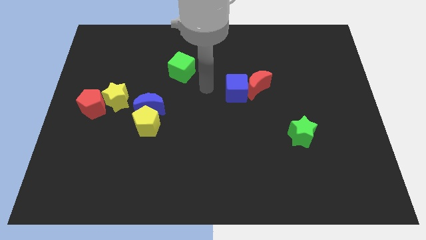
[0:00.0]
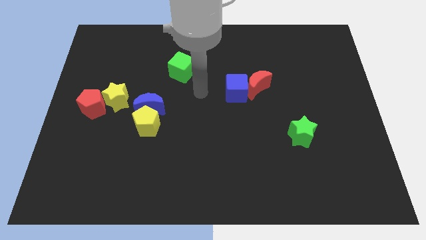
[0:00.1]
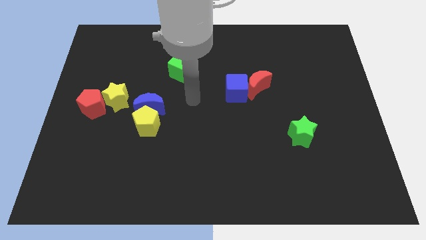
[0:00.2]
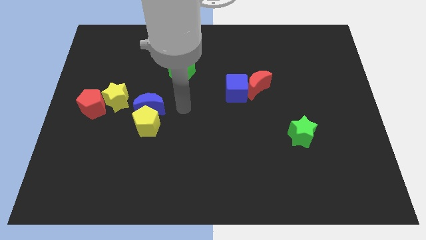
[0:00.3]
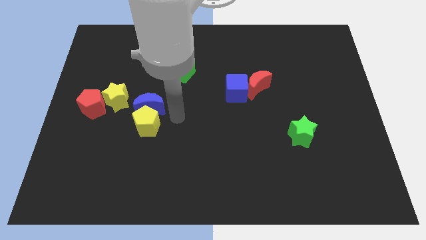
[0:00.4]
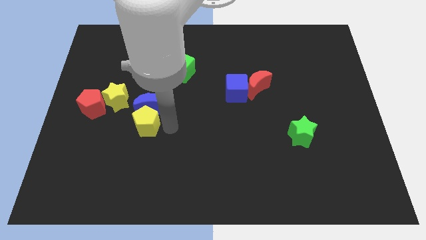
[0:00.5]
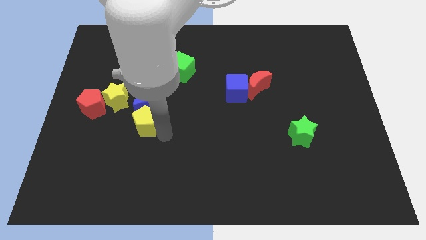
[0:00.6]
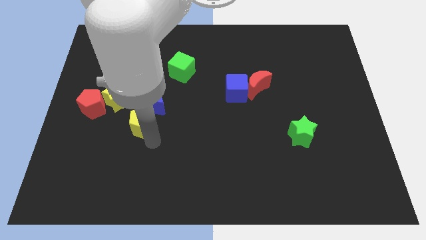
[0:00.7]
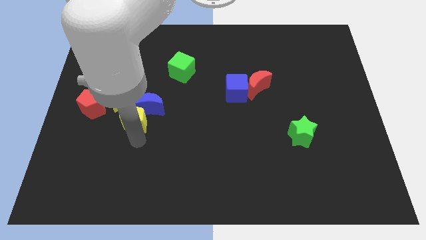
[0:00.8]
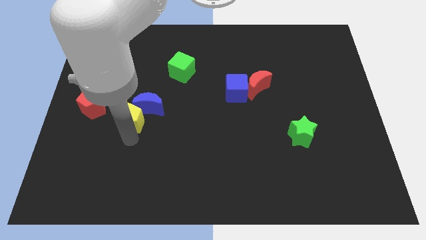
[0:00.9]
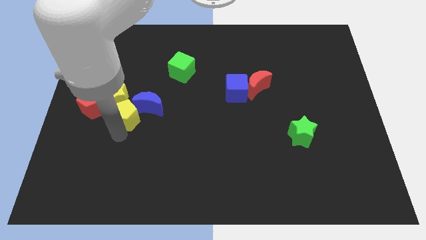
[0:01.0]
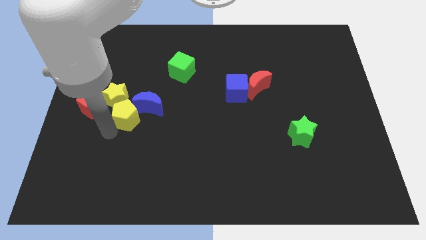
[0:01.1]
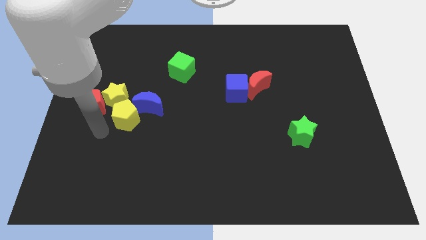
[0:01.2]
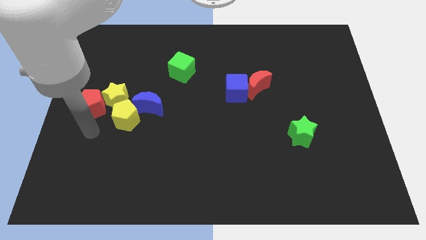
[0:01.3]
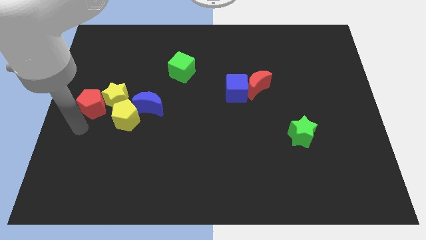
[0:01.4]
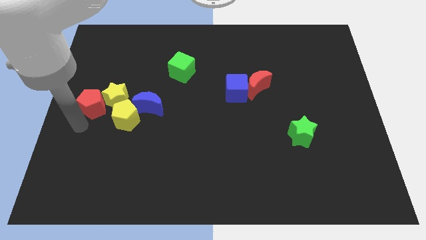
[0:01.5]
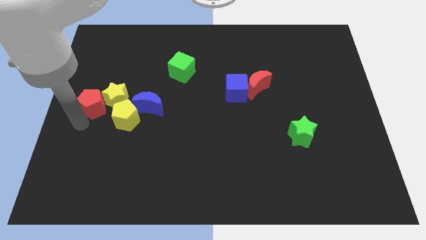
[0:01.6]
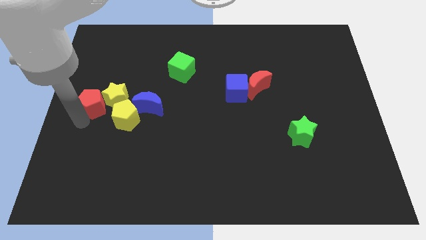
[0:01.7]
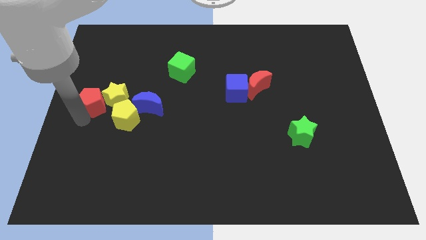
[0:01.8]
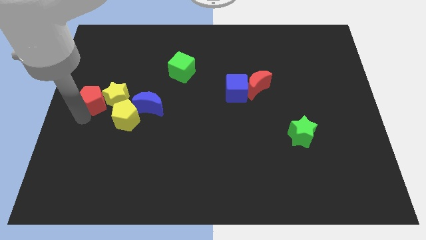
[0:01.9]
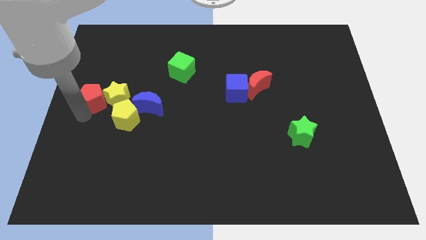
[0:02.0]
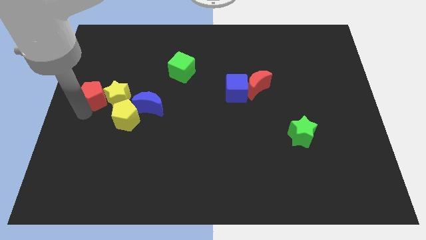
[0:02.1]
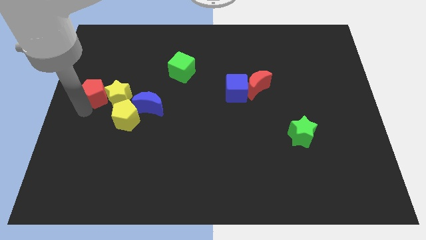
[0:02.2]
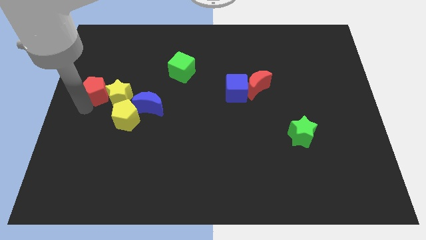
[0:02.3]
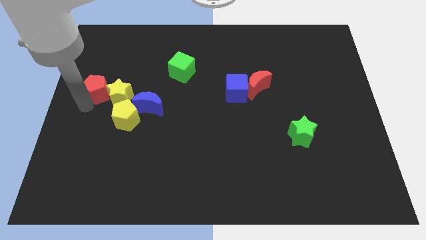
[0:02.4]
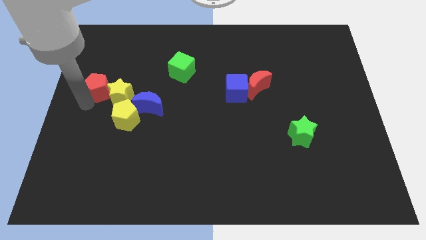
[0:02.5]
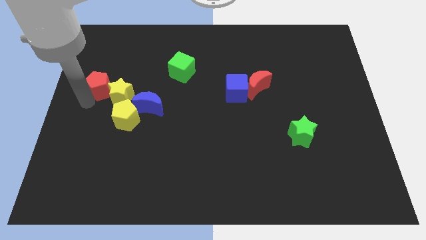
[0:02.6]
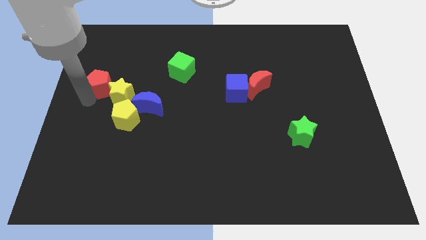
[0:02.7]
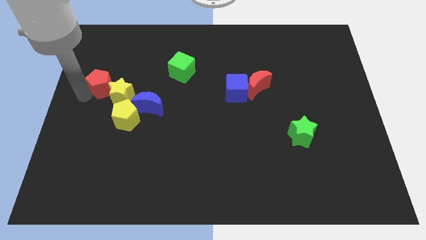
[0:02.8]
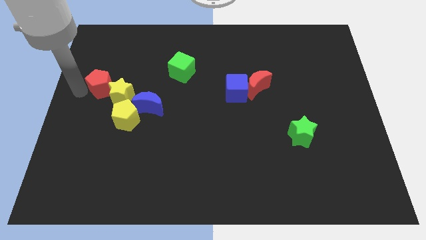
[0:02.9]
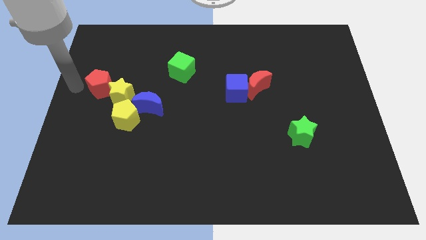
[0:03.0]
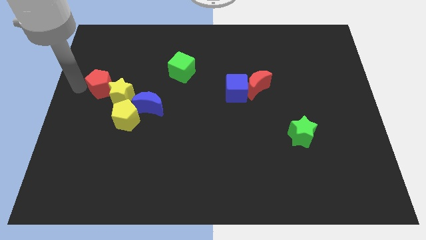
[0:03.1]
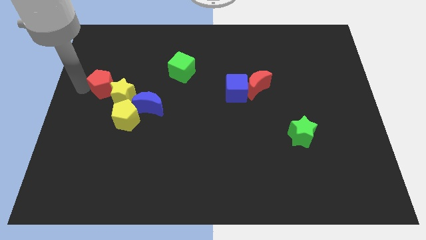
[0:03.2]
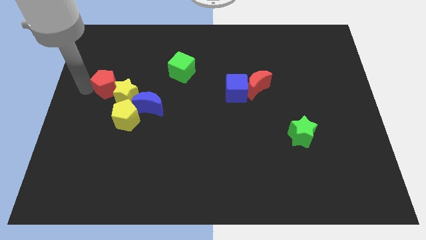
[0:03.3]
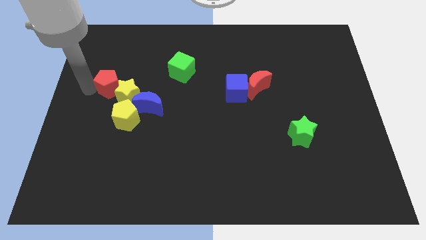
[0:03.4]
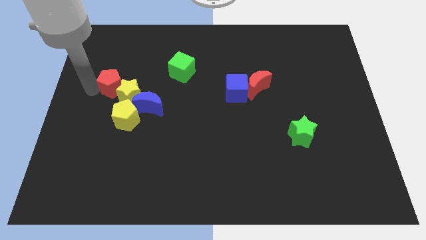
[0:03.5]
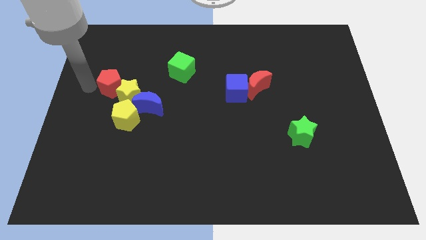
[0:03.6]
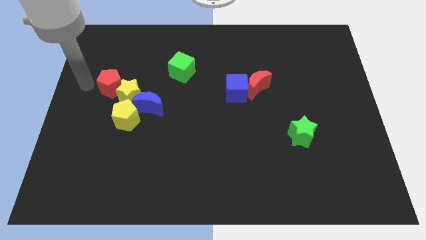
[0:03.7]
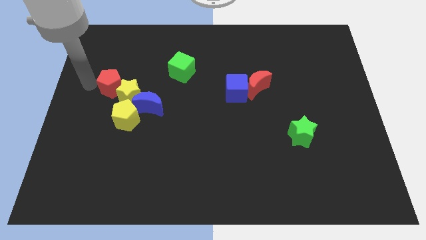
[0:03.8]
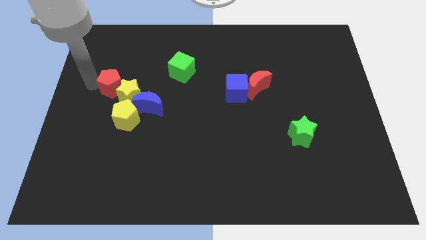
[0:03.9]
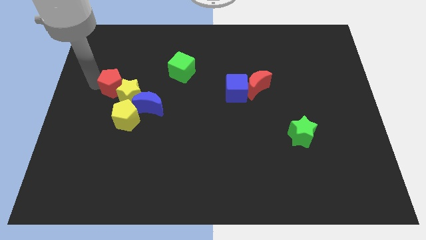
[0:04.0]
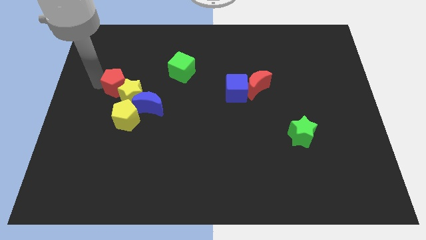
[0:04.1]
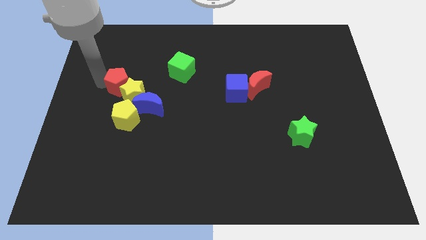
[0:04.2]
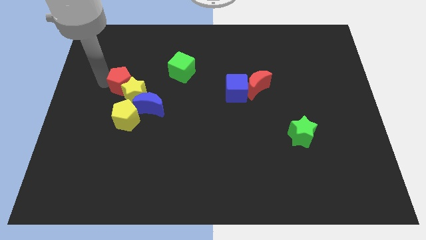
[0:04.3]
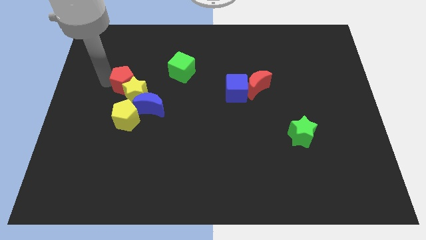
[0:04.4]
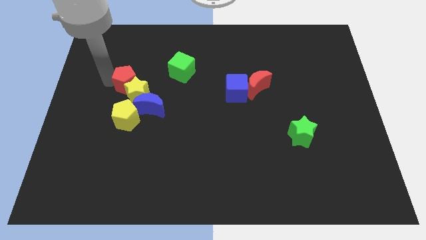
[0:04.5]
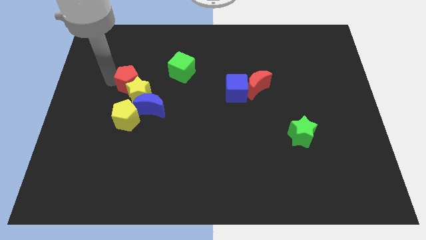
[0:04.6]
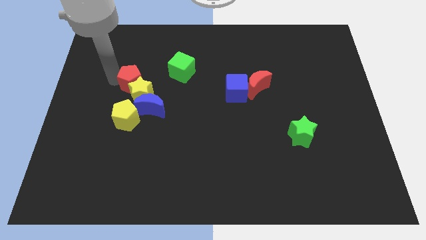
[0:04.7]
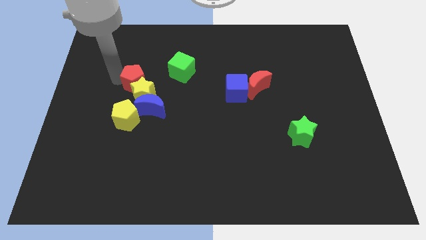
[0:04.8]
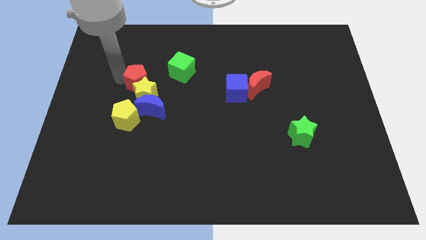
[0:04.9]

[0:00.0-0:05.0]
move the red pentagon a bit to the right

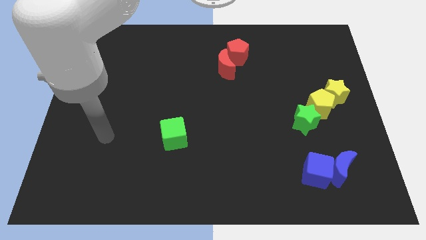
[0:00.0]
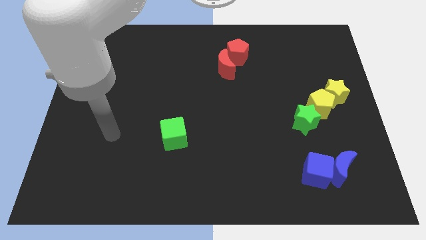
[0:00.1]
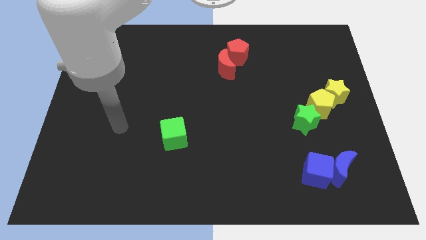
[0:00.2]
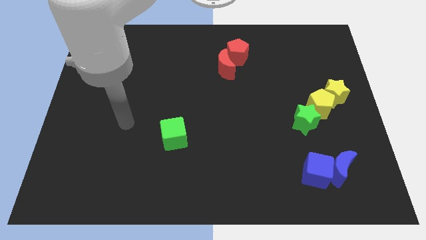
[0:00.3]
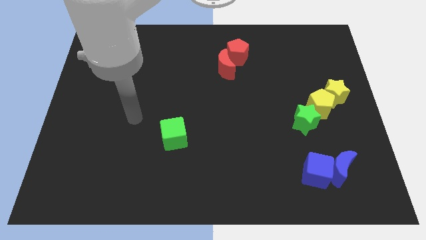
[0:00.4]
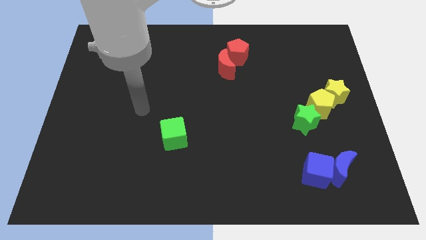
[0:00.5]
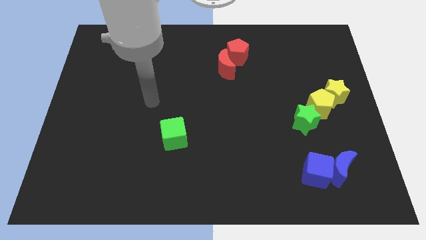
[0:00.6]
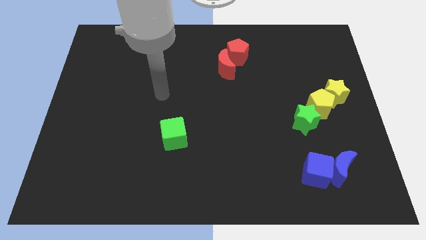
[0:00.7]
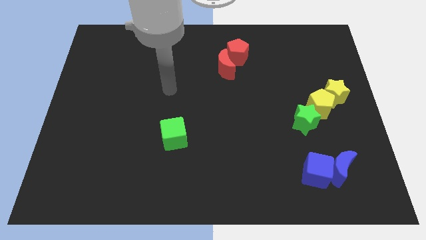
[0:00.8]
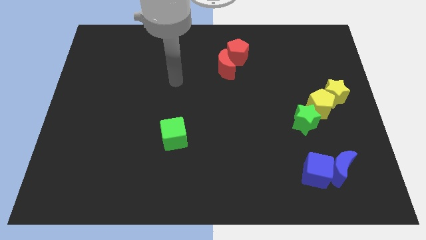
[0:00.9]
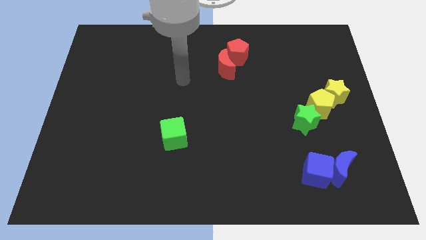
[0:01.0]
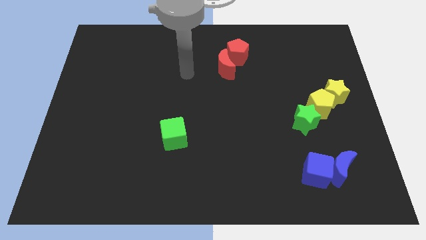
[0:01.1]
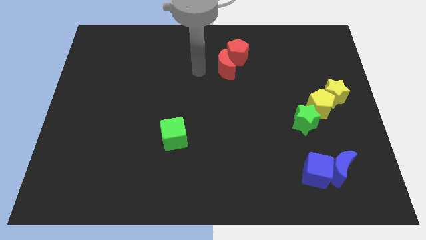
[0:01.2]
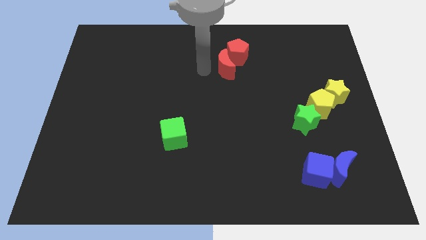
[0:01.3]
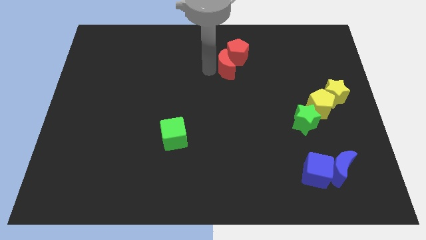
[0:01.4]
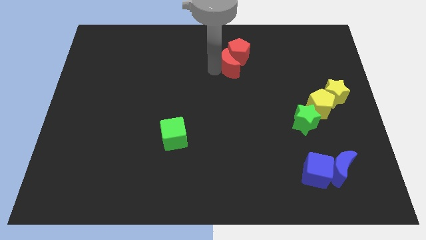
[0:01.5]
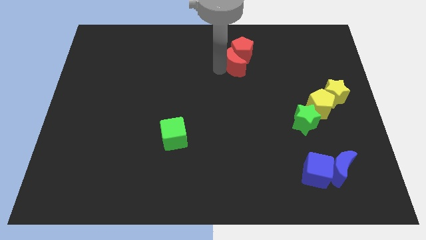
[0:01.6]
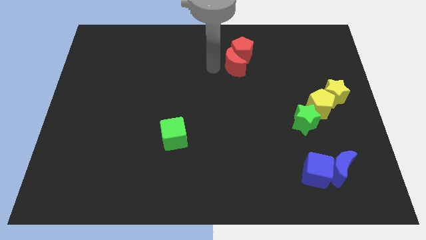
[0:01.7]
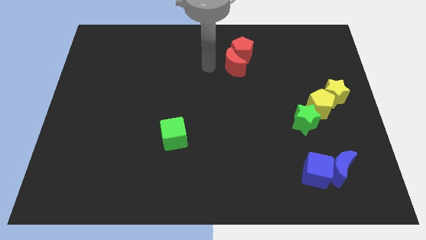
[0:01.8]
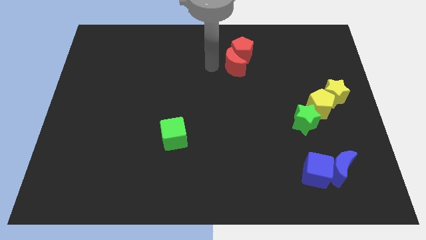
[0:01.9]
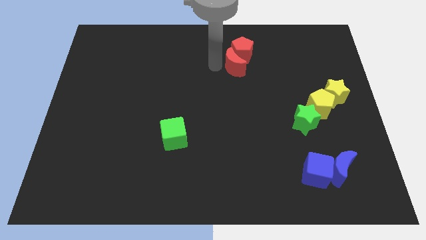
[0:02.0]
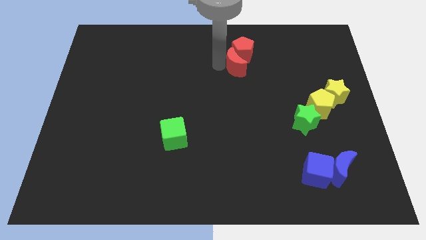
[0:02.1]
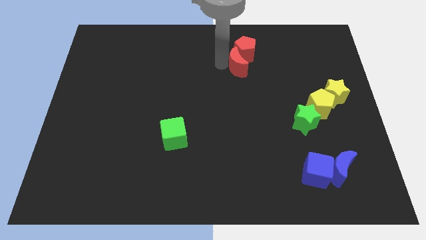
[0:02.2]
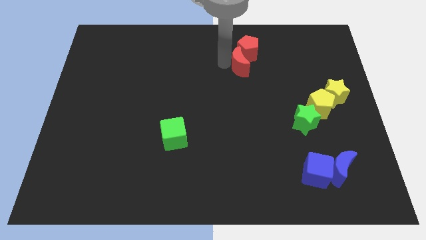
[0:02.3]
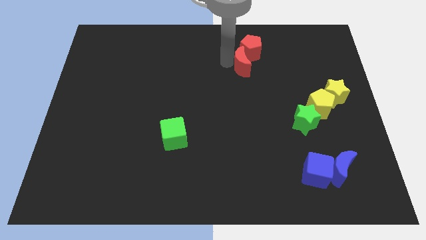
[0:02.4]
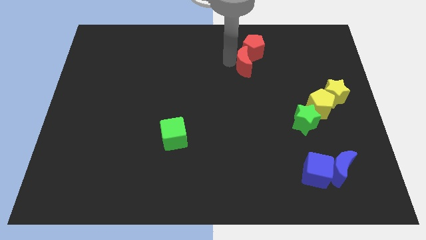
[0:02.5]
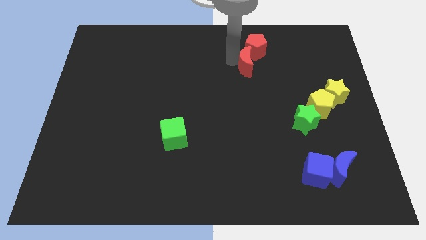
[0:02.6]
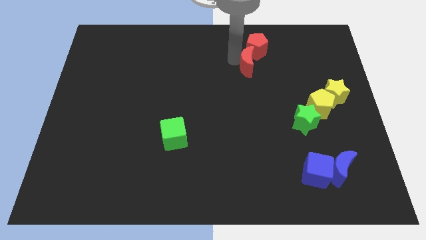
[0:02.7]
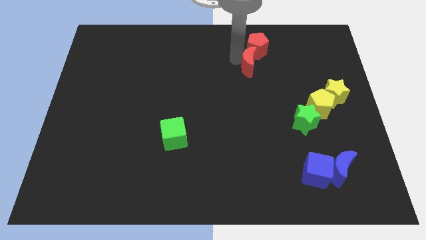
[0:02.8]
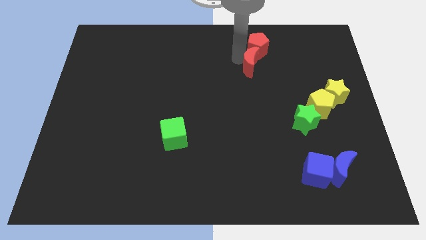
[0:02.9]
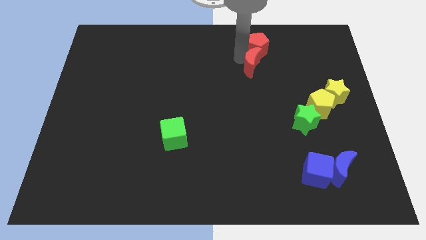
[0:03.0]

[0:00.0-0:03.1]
move the red moon a little bit right

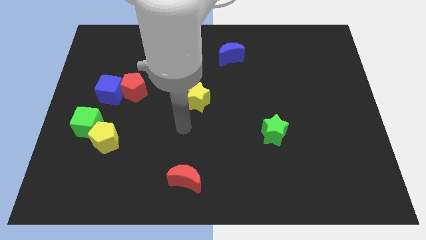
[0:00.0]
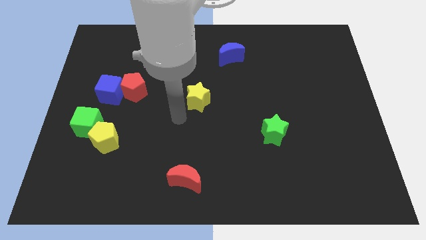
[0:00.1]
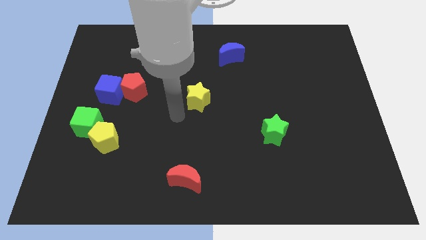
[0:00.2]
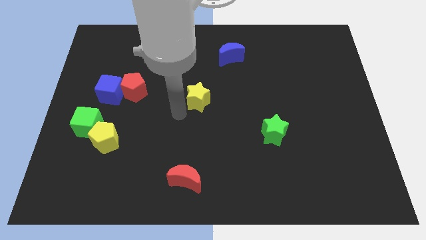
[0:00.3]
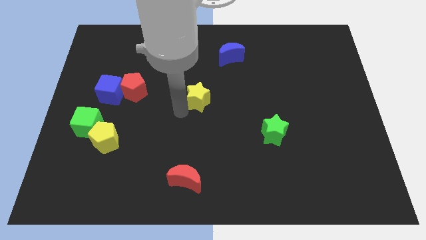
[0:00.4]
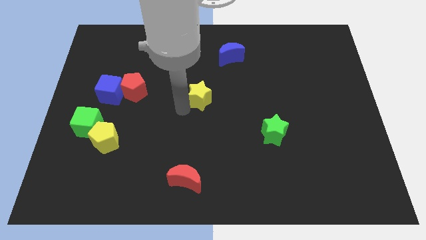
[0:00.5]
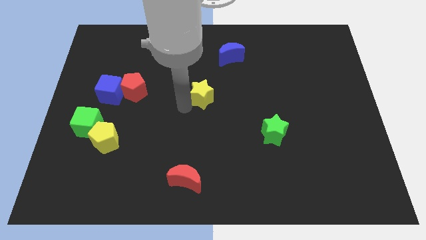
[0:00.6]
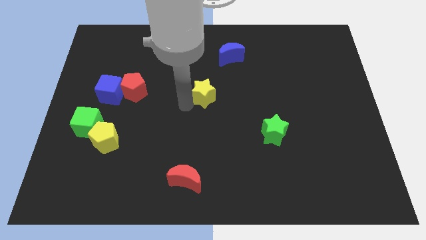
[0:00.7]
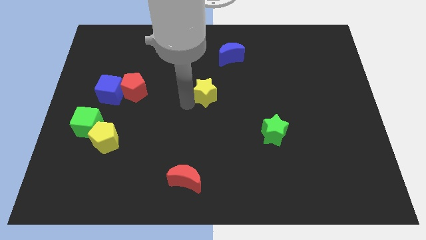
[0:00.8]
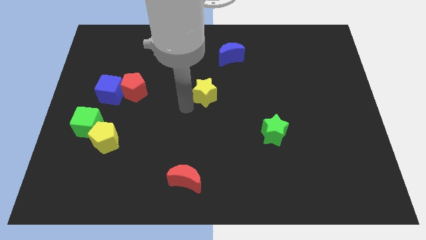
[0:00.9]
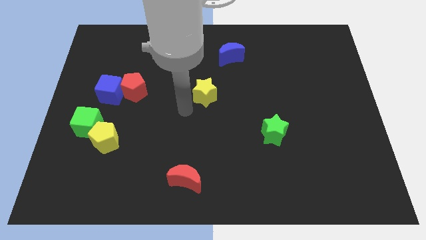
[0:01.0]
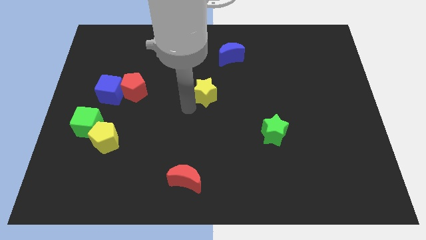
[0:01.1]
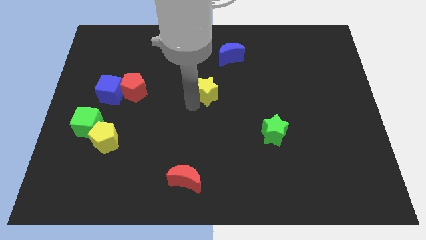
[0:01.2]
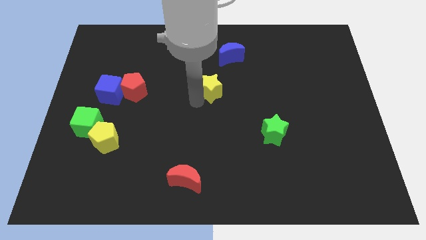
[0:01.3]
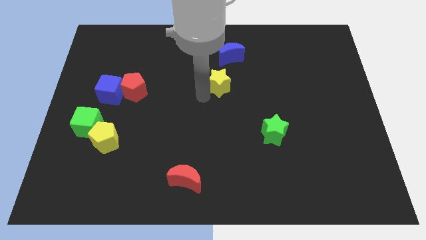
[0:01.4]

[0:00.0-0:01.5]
slide the yellow star a bit diagonally up and to the right
